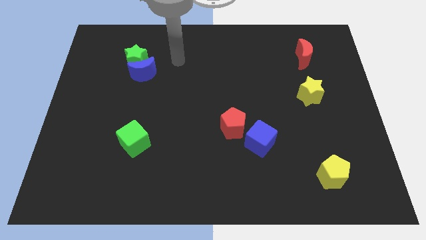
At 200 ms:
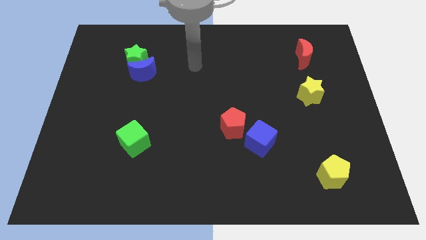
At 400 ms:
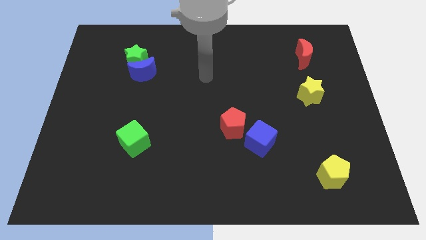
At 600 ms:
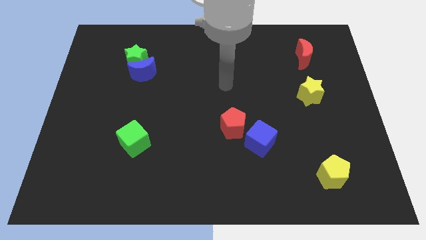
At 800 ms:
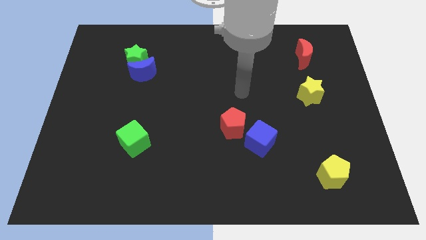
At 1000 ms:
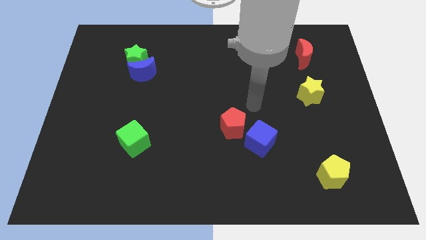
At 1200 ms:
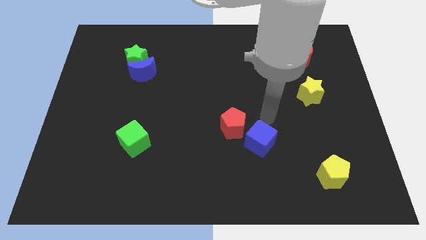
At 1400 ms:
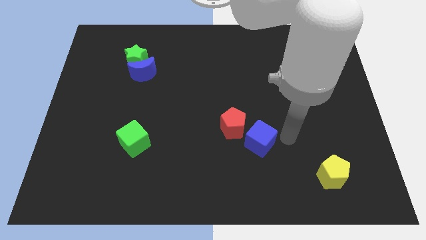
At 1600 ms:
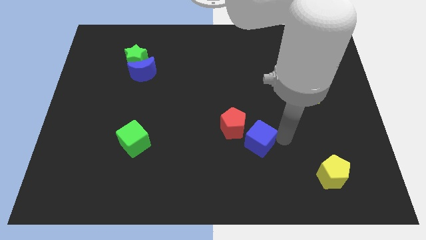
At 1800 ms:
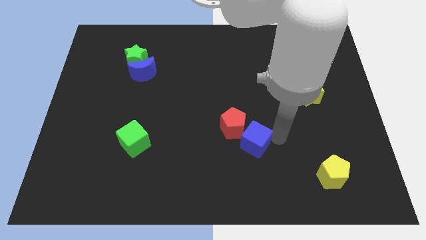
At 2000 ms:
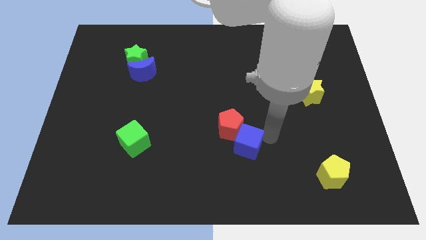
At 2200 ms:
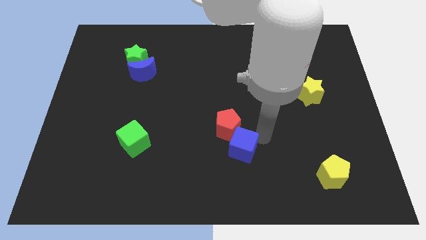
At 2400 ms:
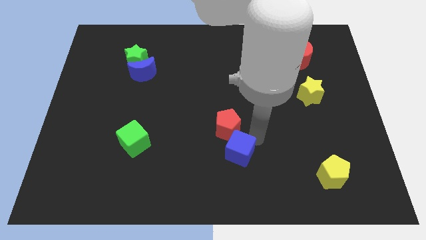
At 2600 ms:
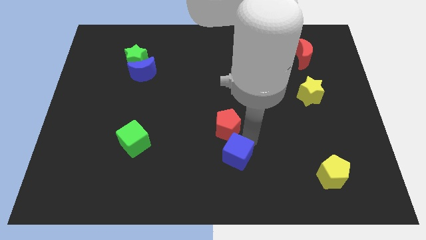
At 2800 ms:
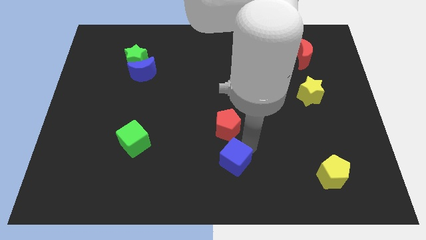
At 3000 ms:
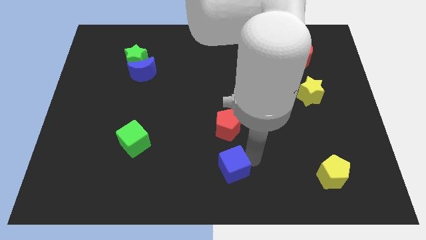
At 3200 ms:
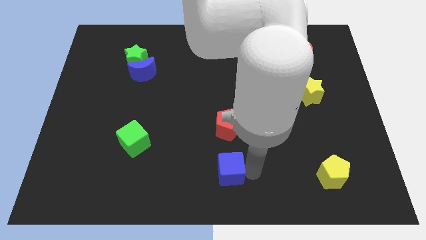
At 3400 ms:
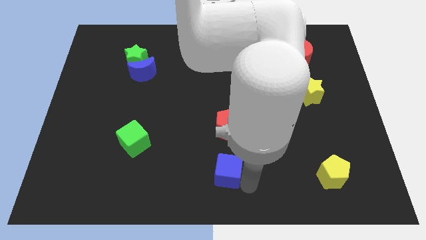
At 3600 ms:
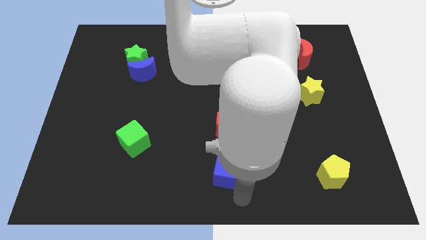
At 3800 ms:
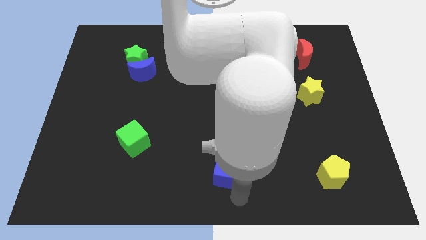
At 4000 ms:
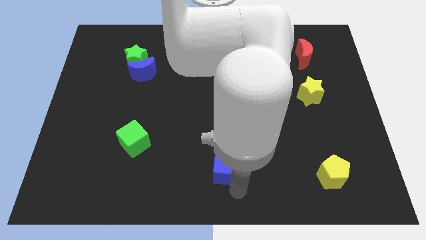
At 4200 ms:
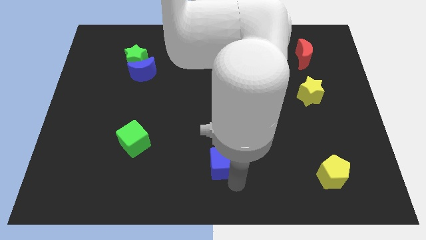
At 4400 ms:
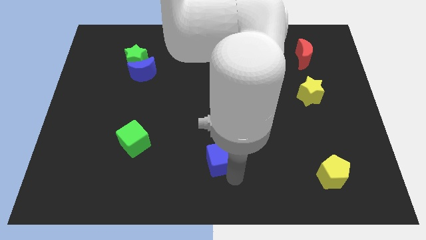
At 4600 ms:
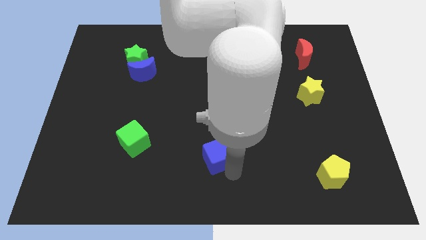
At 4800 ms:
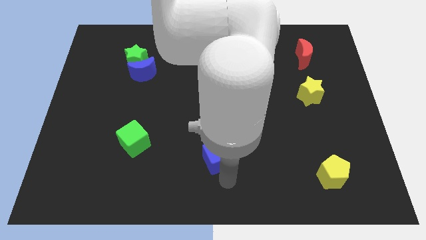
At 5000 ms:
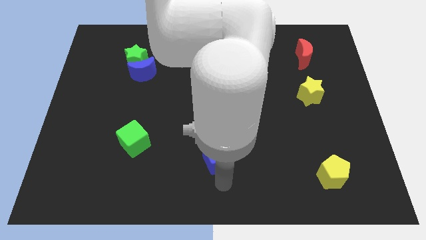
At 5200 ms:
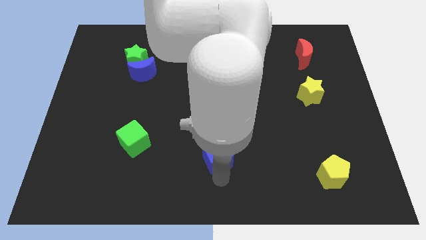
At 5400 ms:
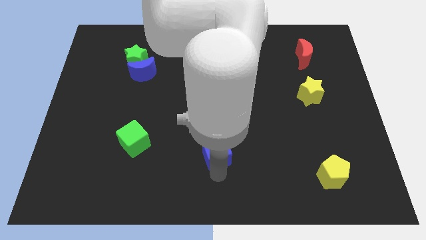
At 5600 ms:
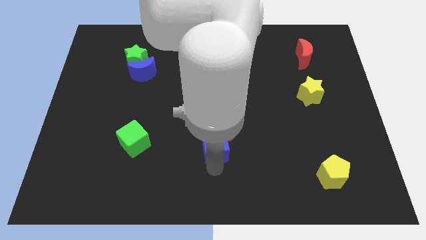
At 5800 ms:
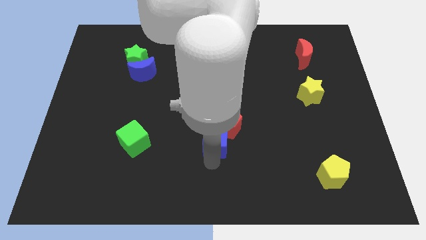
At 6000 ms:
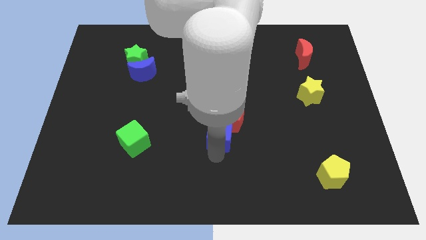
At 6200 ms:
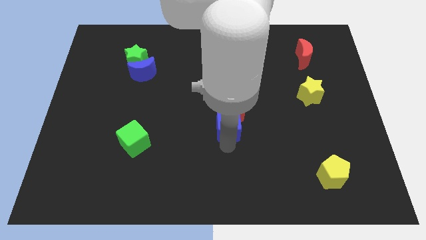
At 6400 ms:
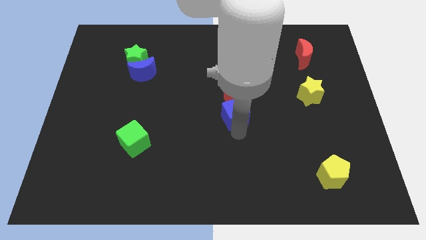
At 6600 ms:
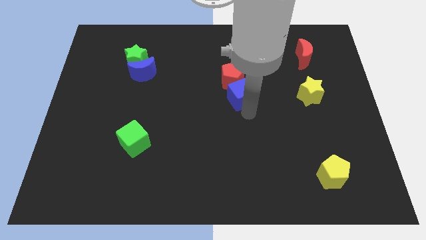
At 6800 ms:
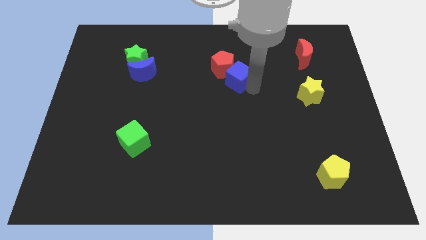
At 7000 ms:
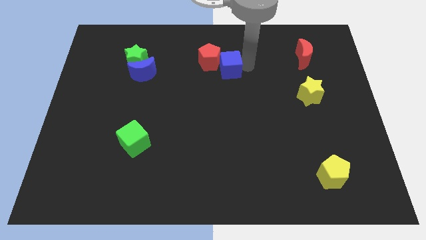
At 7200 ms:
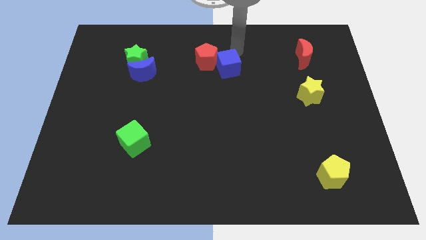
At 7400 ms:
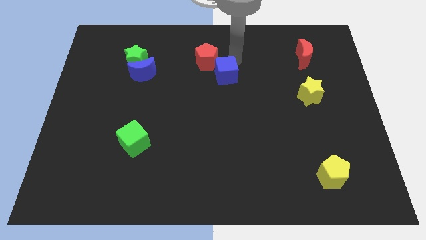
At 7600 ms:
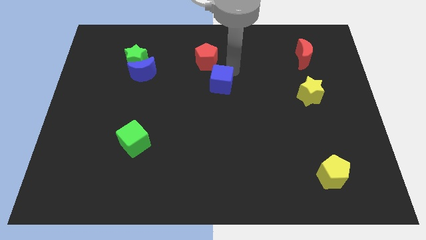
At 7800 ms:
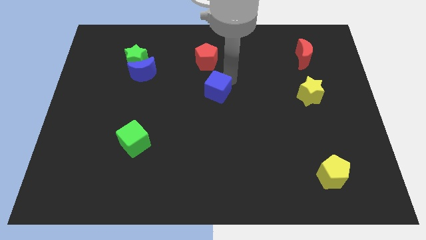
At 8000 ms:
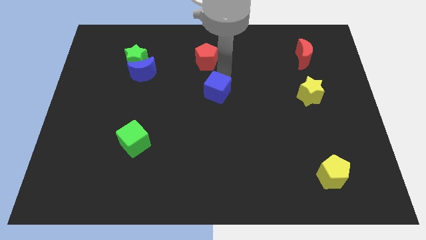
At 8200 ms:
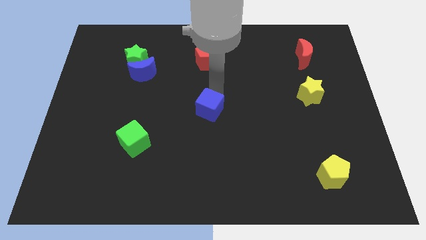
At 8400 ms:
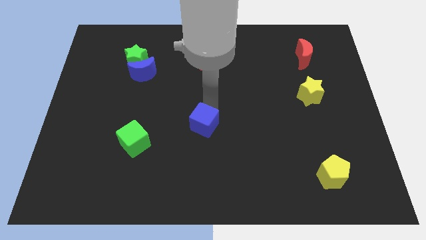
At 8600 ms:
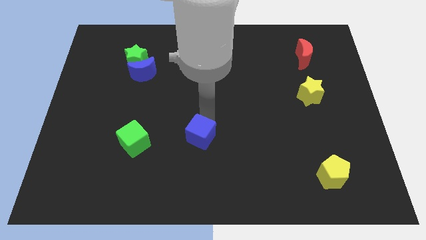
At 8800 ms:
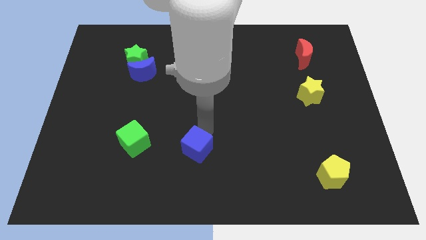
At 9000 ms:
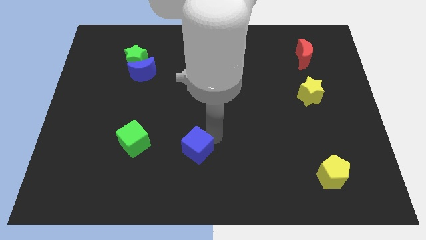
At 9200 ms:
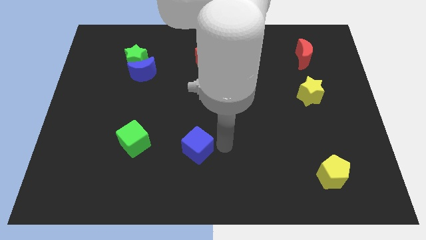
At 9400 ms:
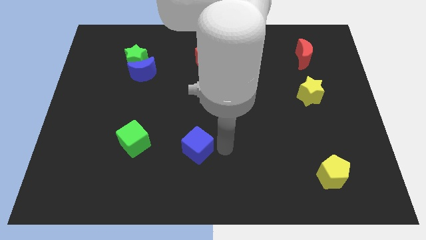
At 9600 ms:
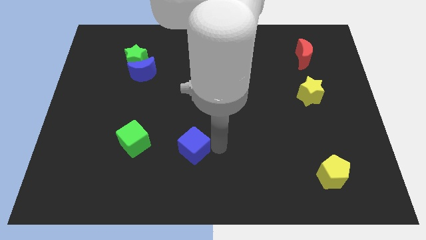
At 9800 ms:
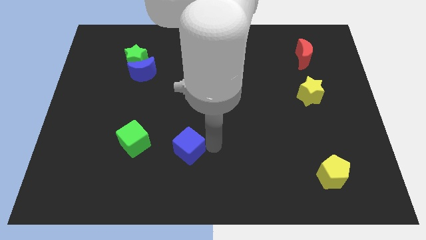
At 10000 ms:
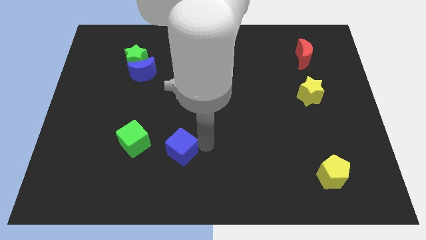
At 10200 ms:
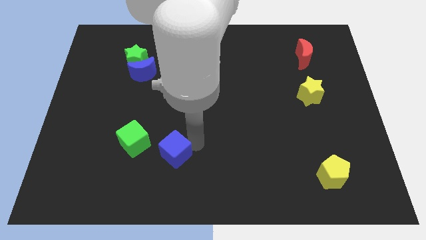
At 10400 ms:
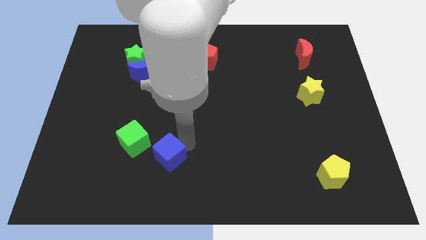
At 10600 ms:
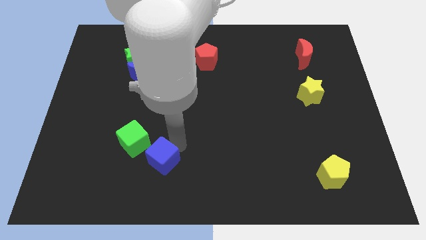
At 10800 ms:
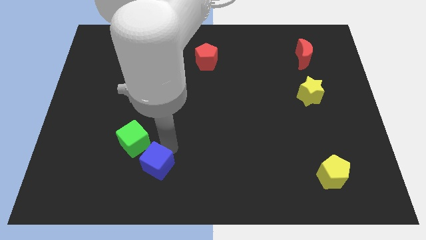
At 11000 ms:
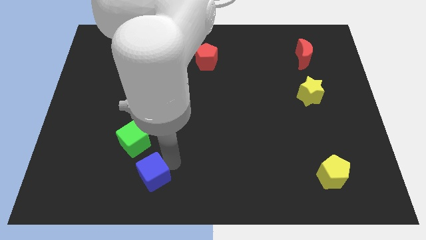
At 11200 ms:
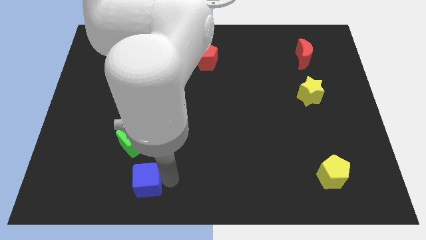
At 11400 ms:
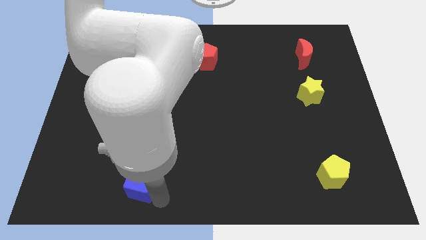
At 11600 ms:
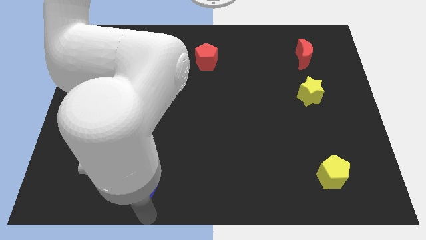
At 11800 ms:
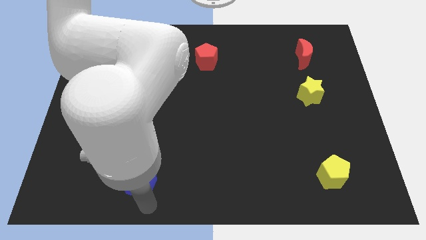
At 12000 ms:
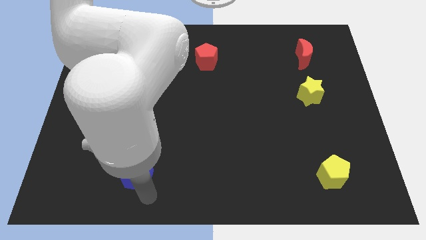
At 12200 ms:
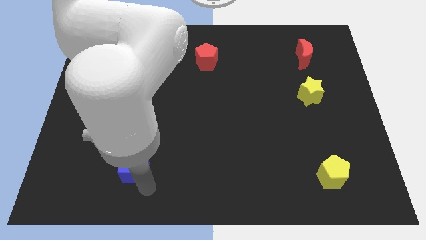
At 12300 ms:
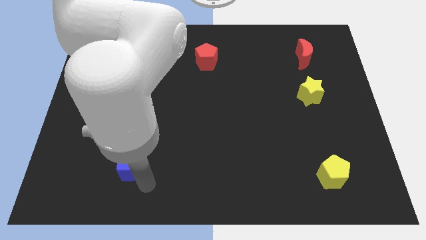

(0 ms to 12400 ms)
slide the blue cube next to the green cube

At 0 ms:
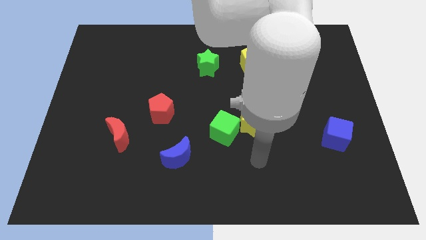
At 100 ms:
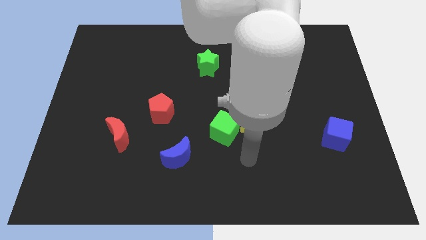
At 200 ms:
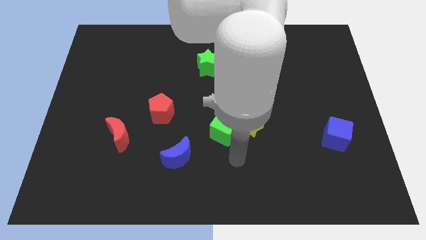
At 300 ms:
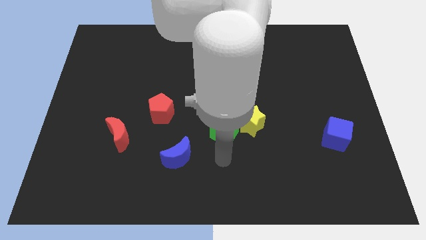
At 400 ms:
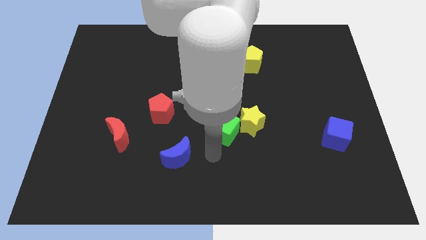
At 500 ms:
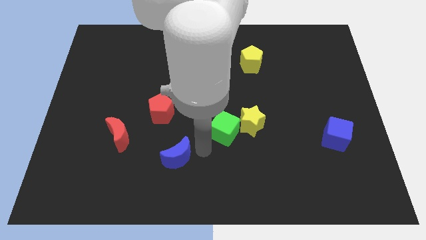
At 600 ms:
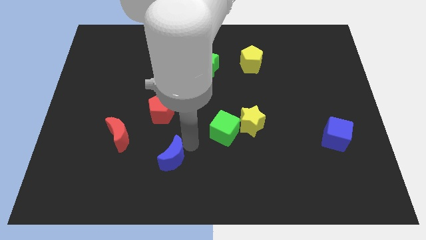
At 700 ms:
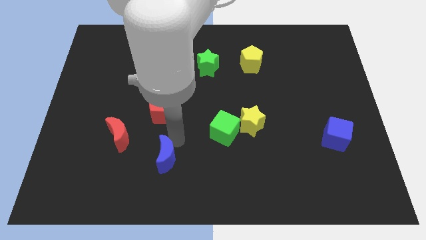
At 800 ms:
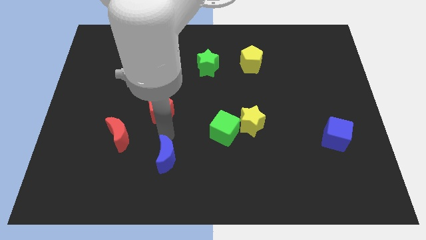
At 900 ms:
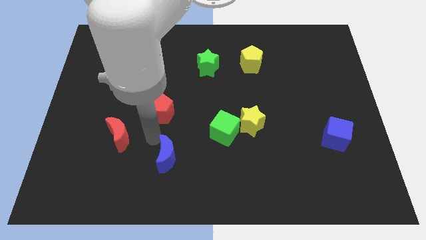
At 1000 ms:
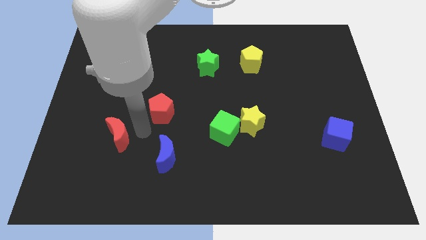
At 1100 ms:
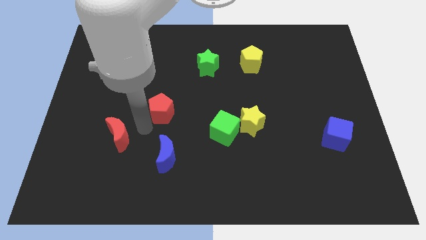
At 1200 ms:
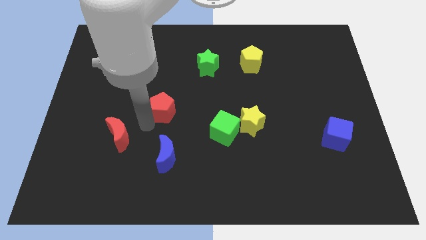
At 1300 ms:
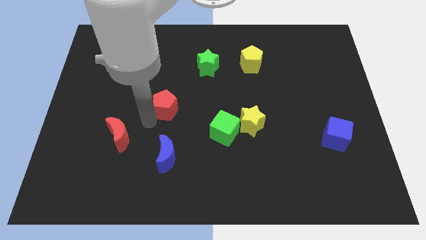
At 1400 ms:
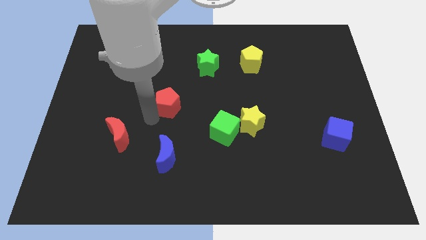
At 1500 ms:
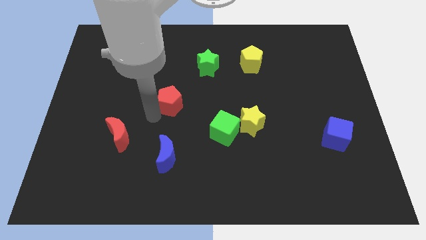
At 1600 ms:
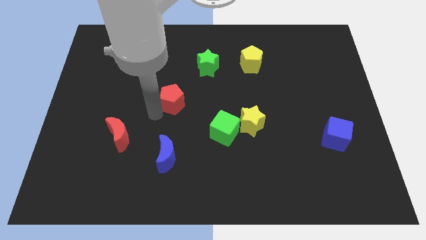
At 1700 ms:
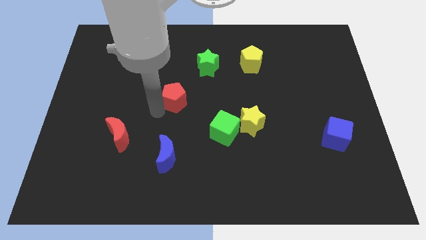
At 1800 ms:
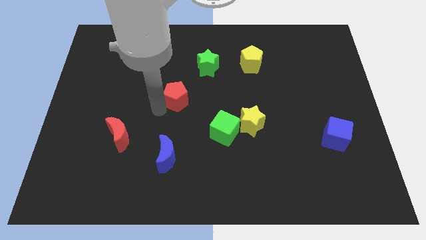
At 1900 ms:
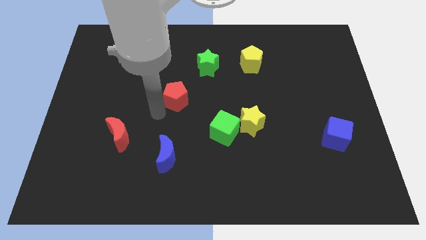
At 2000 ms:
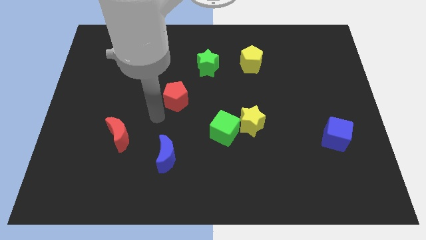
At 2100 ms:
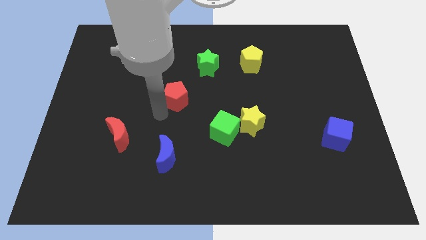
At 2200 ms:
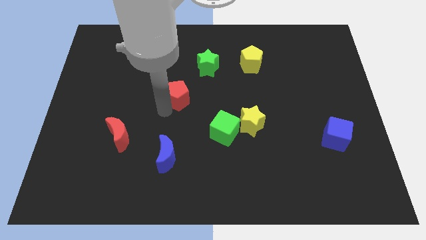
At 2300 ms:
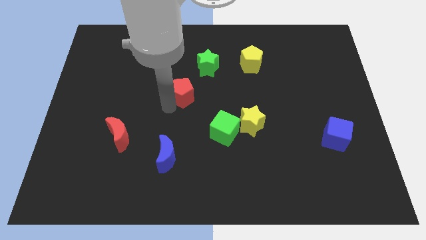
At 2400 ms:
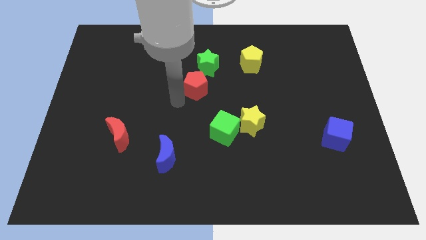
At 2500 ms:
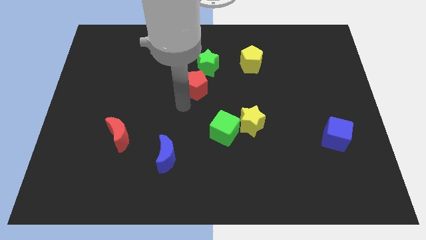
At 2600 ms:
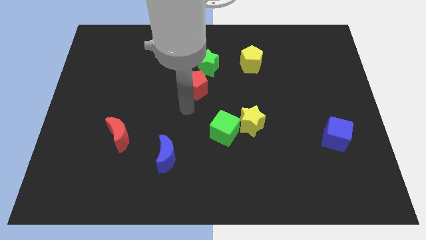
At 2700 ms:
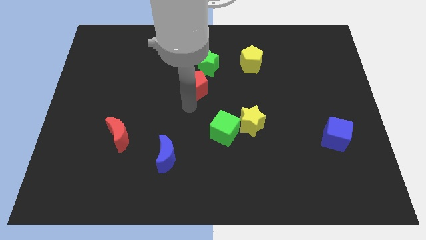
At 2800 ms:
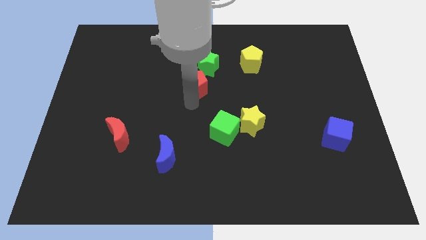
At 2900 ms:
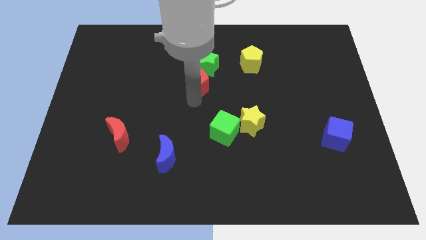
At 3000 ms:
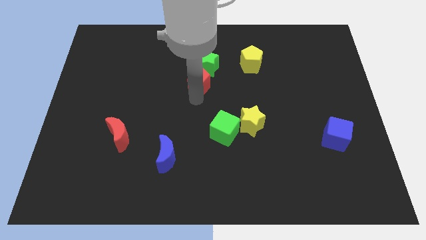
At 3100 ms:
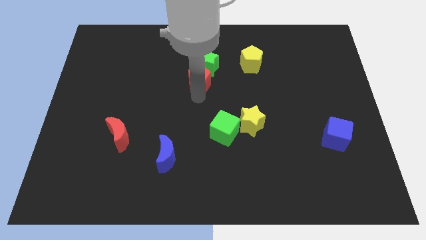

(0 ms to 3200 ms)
put the red pentagon close to the green star
